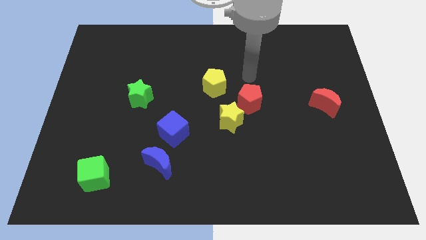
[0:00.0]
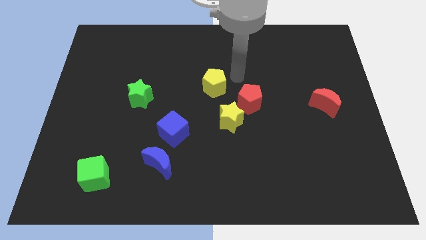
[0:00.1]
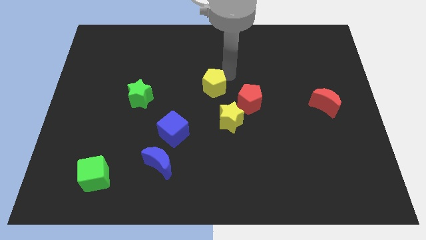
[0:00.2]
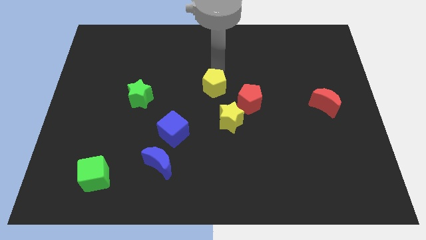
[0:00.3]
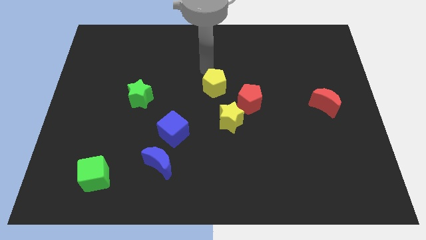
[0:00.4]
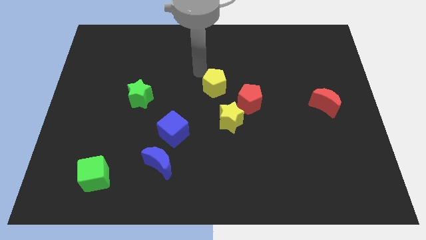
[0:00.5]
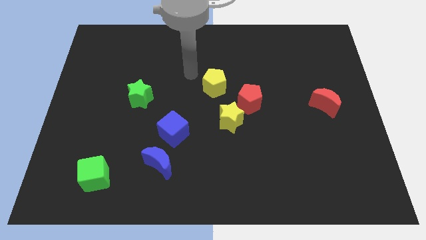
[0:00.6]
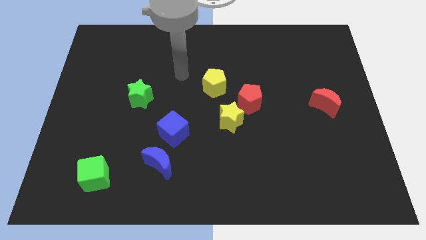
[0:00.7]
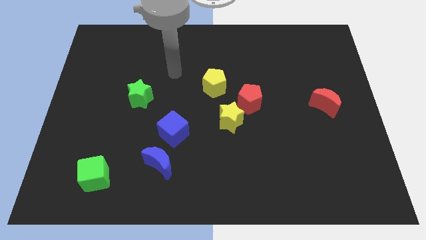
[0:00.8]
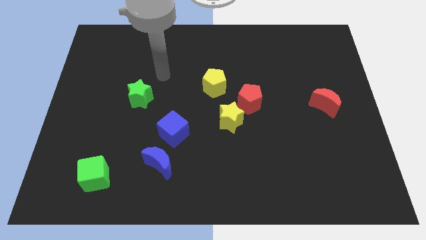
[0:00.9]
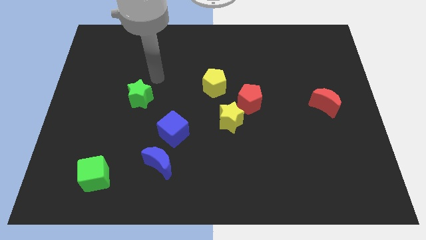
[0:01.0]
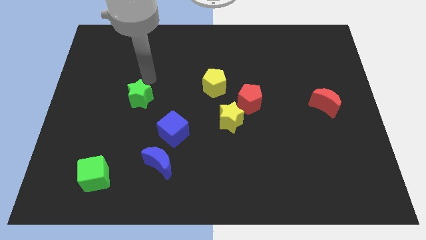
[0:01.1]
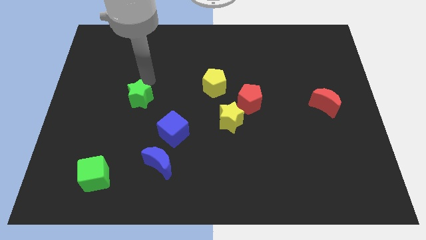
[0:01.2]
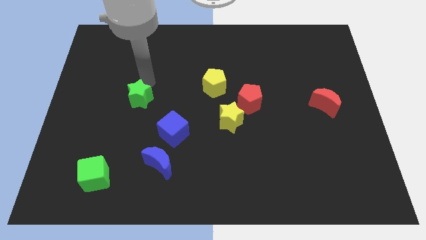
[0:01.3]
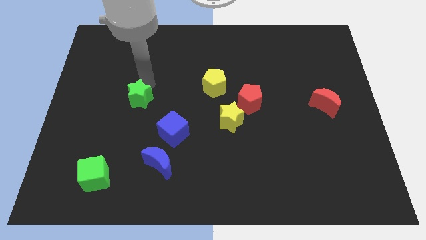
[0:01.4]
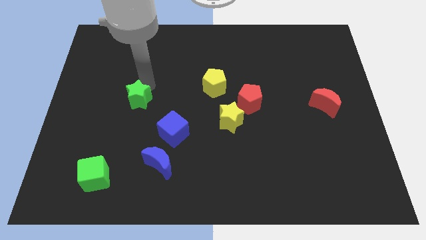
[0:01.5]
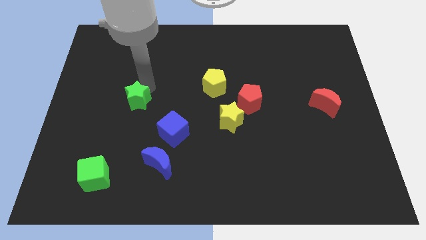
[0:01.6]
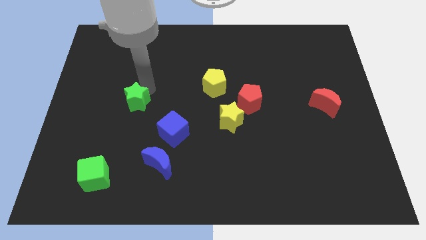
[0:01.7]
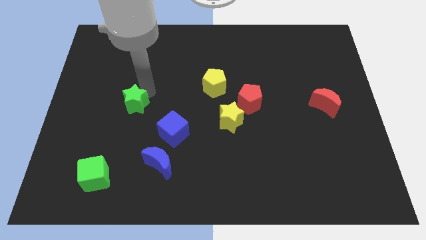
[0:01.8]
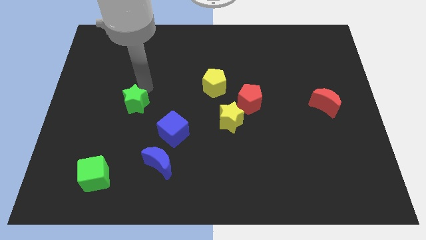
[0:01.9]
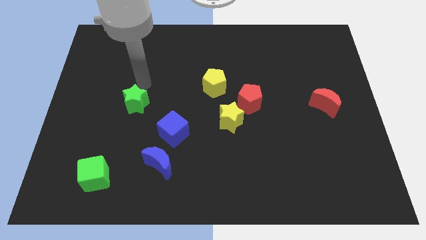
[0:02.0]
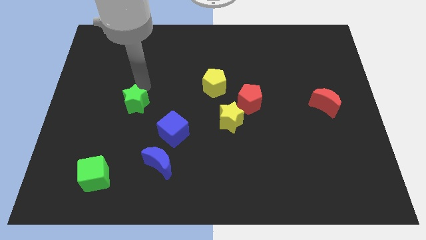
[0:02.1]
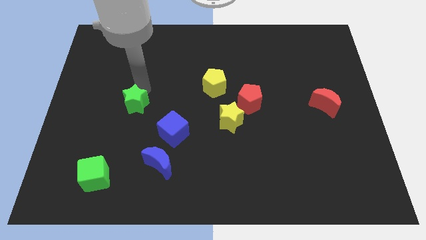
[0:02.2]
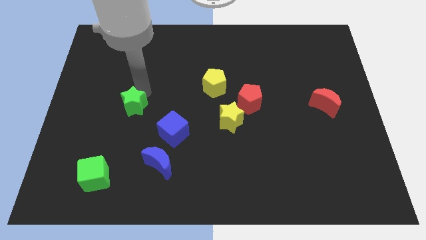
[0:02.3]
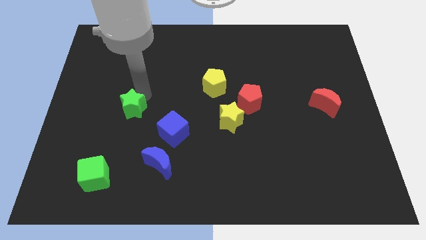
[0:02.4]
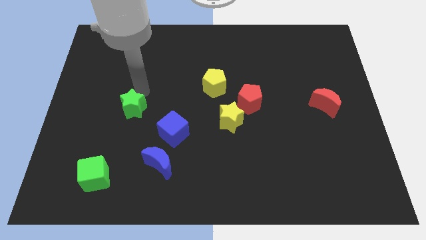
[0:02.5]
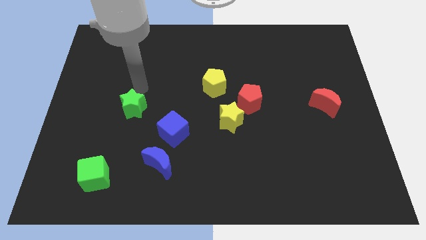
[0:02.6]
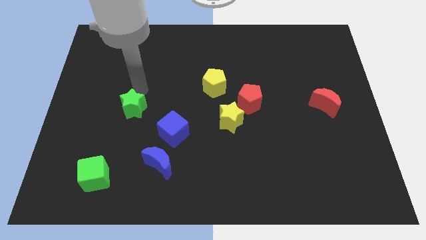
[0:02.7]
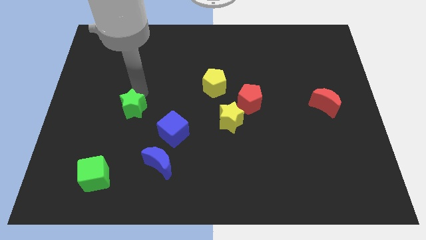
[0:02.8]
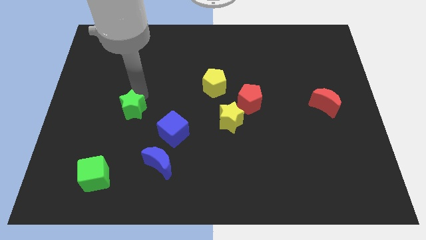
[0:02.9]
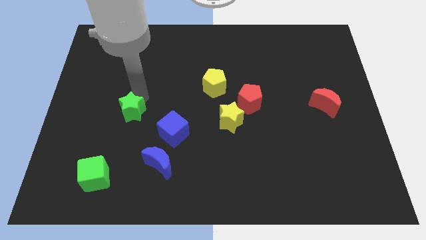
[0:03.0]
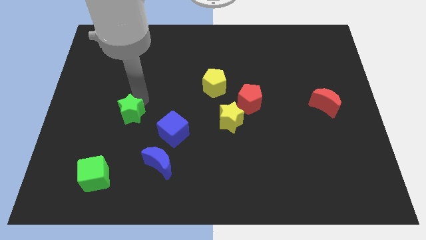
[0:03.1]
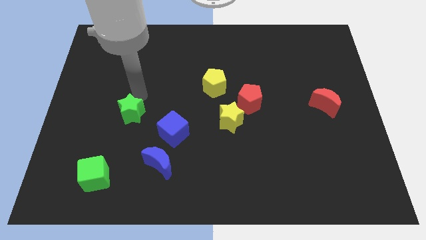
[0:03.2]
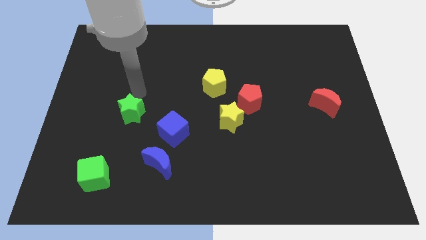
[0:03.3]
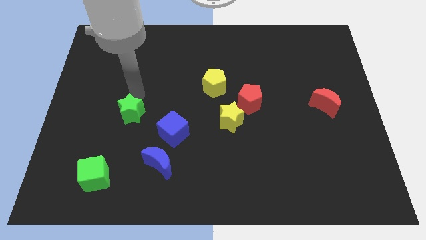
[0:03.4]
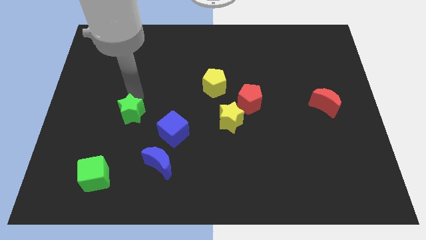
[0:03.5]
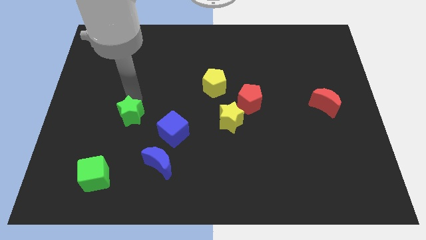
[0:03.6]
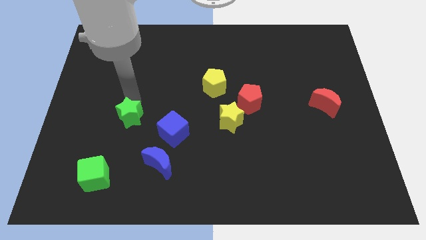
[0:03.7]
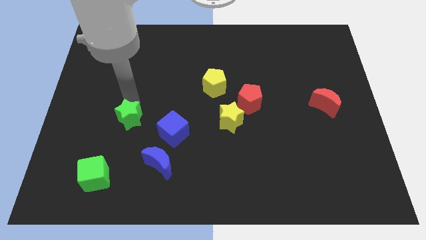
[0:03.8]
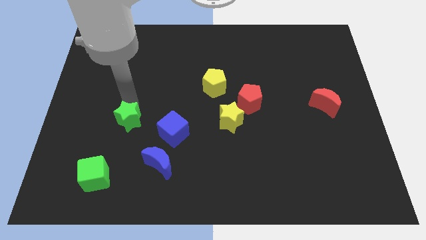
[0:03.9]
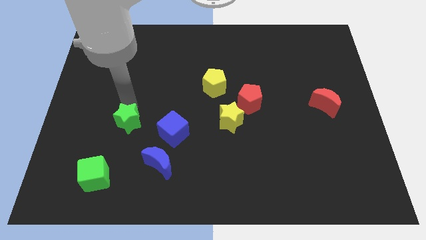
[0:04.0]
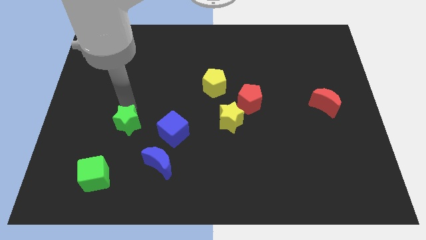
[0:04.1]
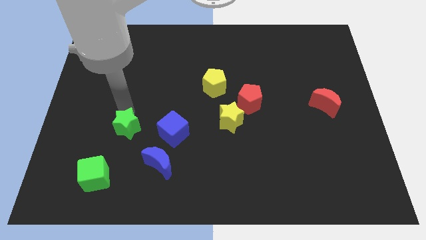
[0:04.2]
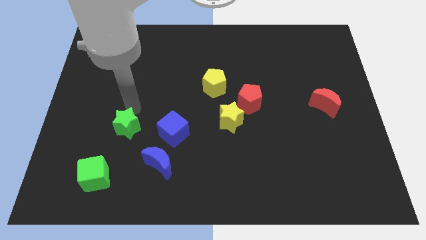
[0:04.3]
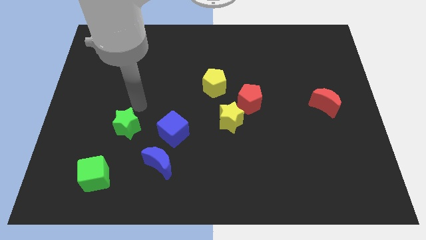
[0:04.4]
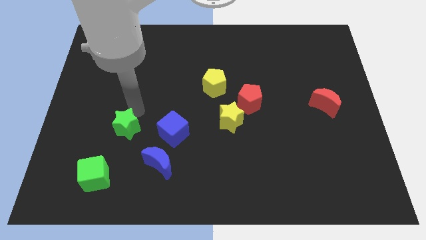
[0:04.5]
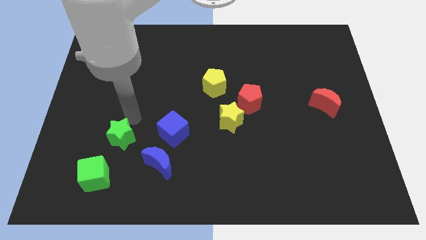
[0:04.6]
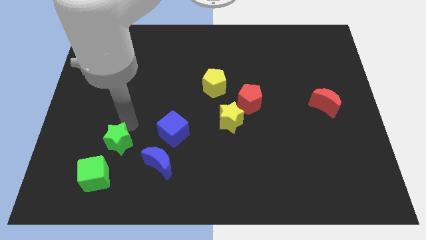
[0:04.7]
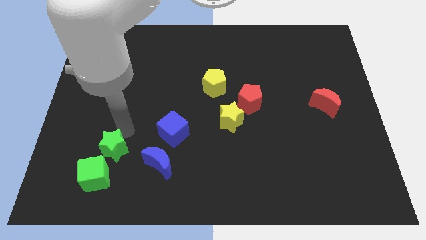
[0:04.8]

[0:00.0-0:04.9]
put the green star left of the blue moon

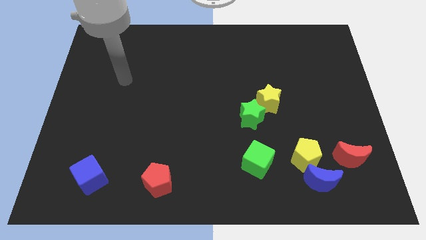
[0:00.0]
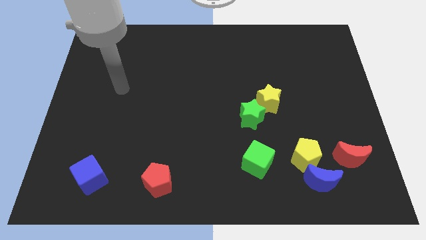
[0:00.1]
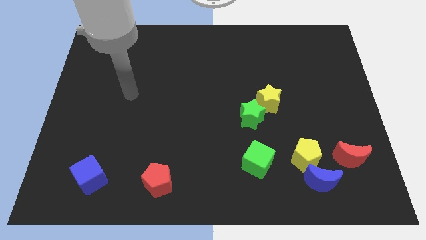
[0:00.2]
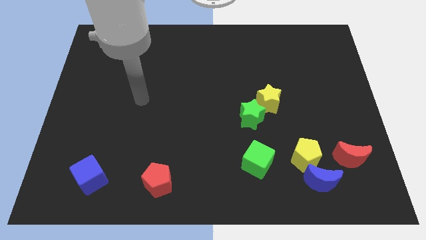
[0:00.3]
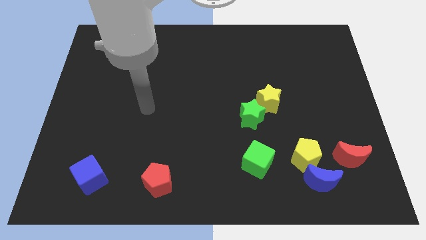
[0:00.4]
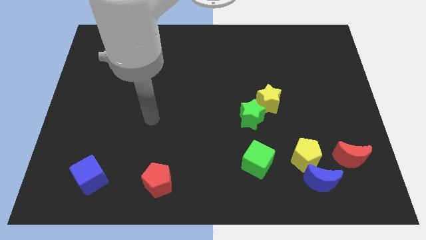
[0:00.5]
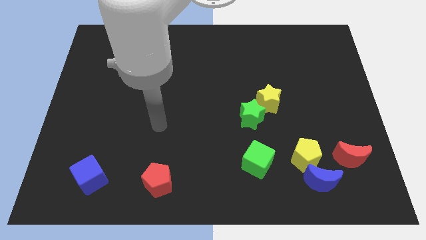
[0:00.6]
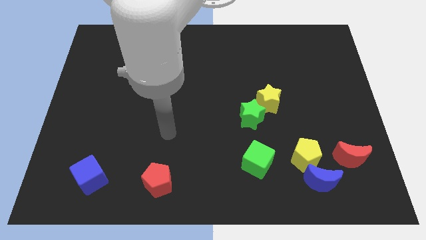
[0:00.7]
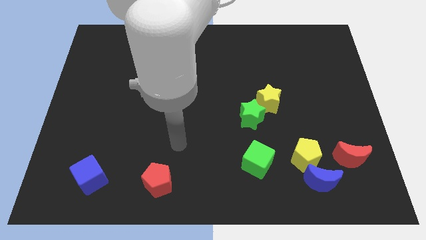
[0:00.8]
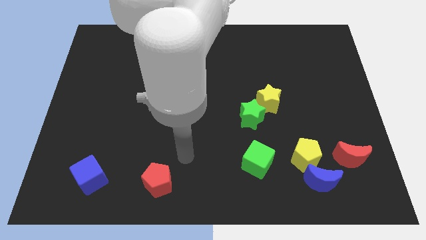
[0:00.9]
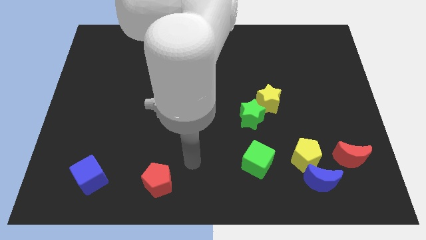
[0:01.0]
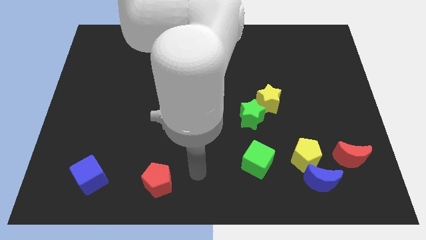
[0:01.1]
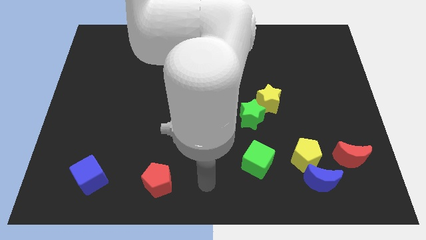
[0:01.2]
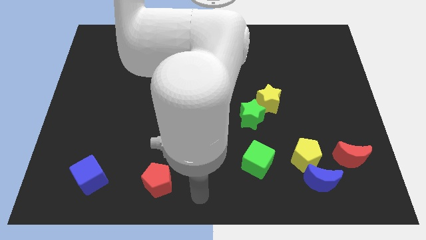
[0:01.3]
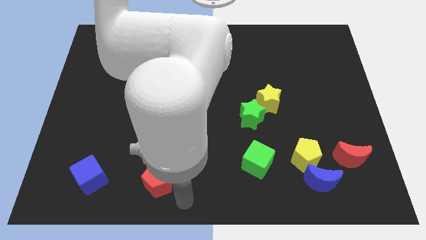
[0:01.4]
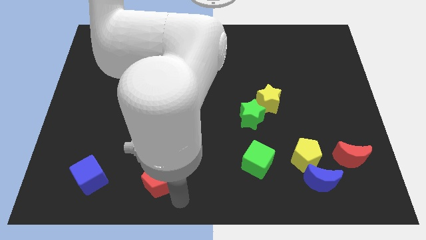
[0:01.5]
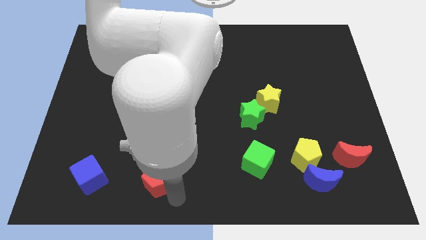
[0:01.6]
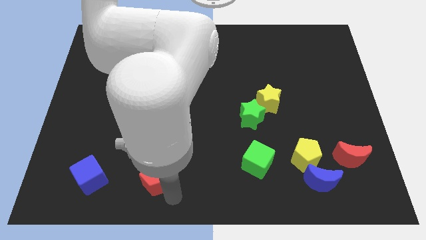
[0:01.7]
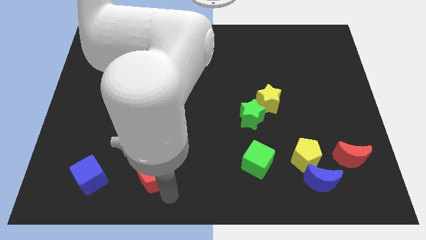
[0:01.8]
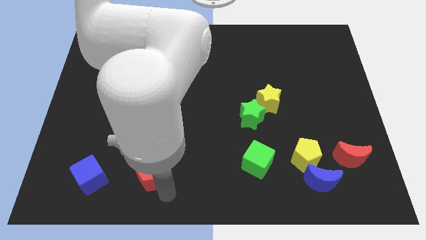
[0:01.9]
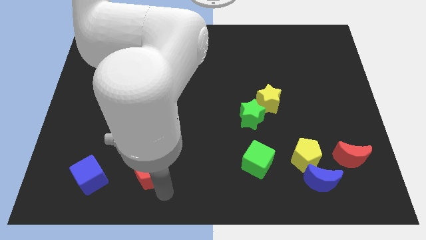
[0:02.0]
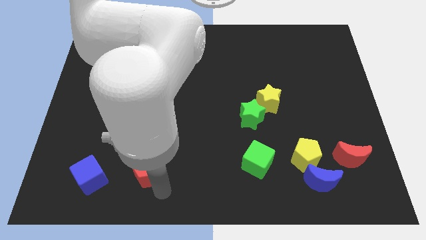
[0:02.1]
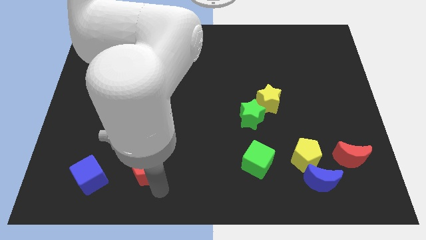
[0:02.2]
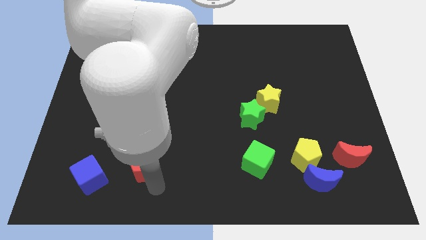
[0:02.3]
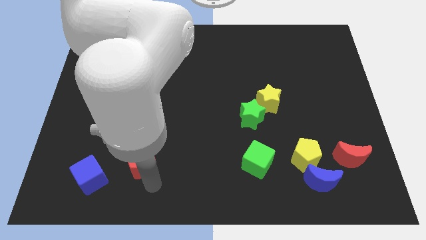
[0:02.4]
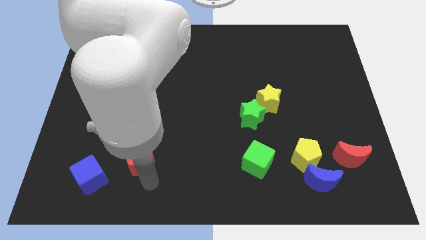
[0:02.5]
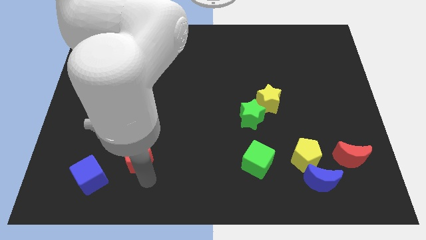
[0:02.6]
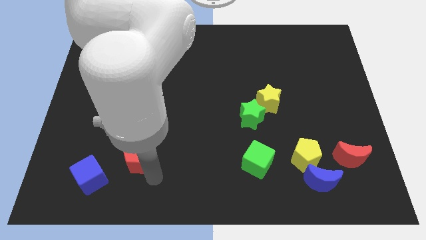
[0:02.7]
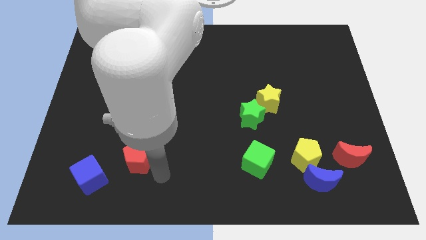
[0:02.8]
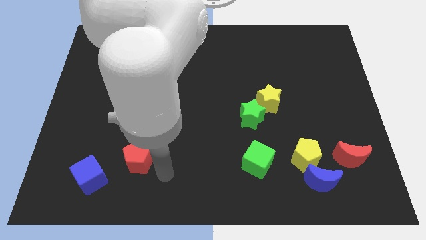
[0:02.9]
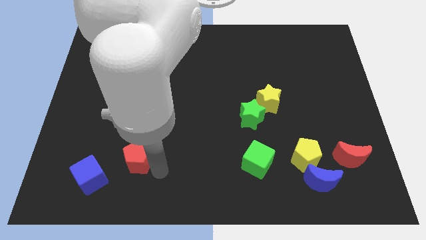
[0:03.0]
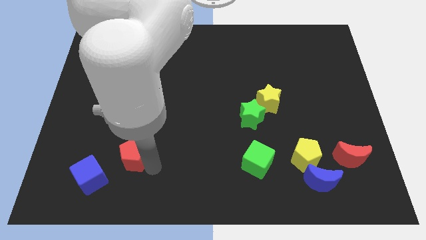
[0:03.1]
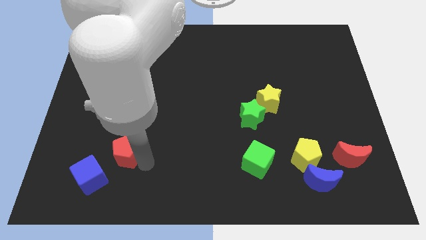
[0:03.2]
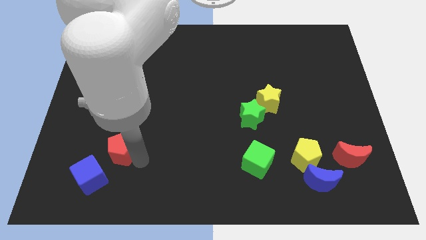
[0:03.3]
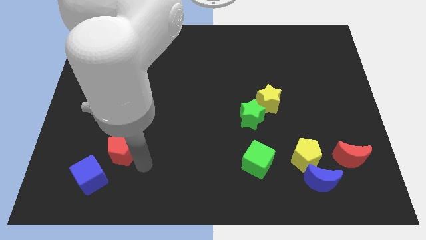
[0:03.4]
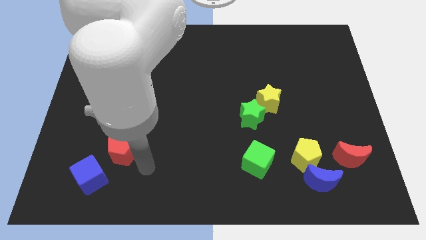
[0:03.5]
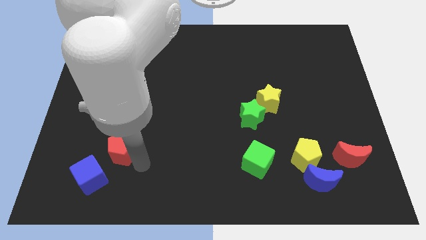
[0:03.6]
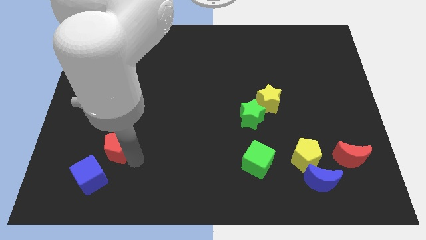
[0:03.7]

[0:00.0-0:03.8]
move the red pentagon to the top side of the blue cube
